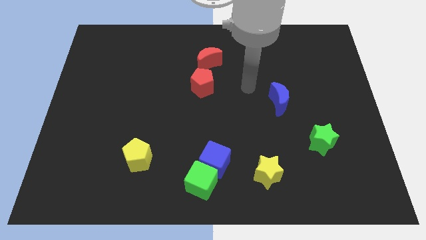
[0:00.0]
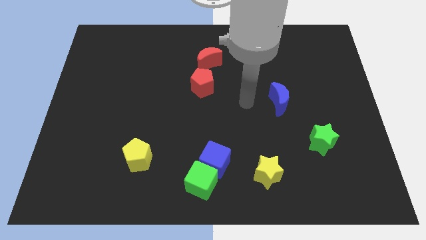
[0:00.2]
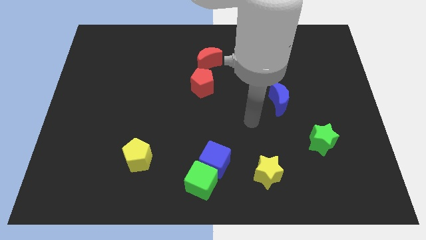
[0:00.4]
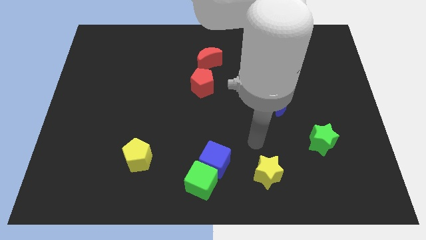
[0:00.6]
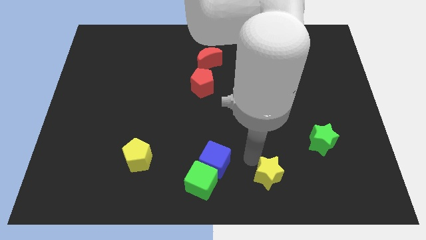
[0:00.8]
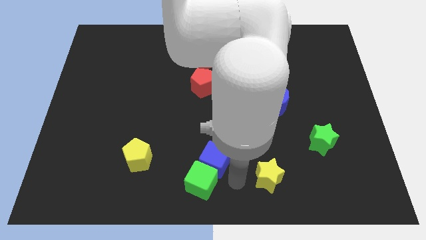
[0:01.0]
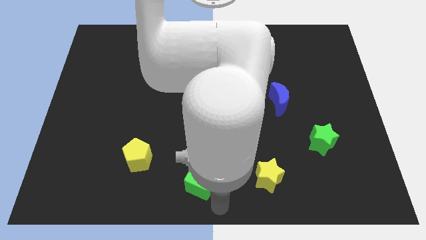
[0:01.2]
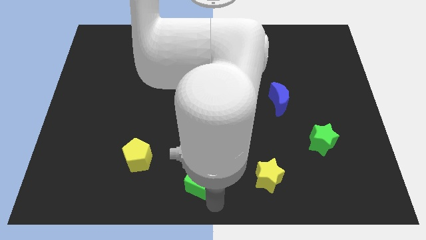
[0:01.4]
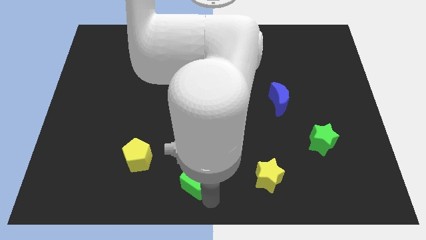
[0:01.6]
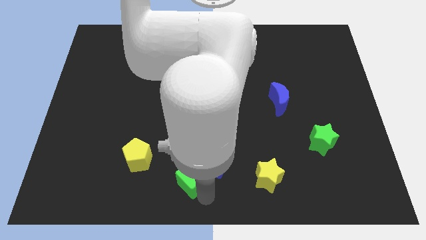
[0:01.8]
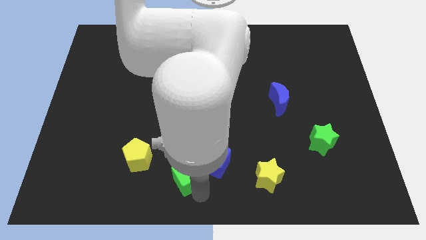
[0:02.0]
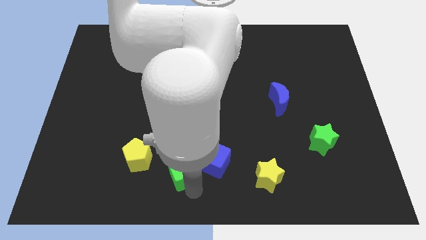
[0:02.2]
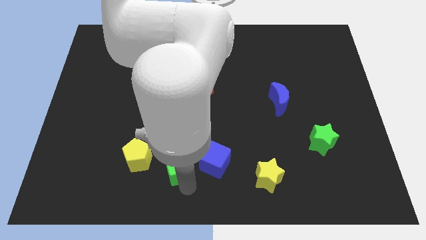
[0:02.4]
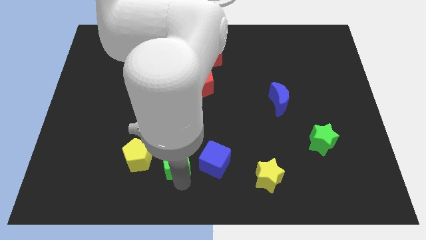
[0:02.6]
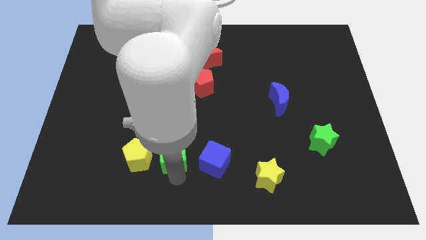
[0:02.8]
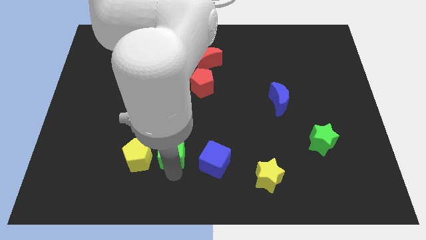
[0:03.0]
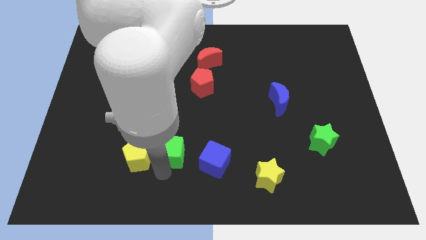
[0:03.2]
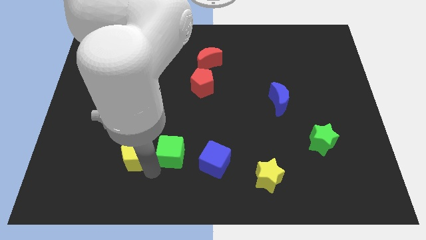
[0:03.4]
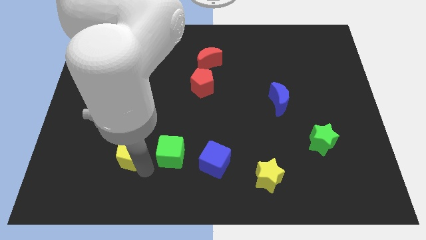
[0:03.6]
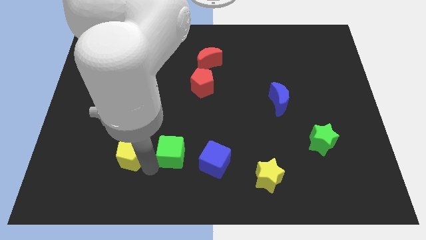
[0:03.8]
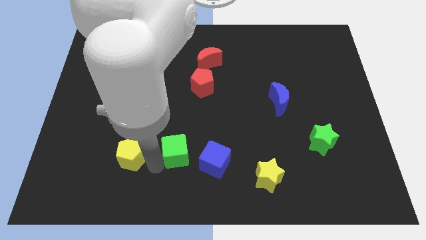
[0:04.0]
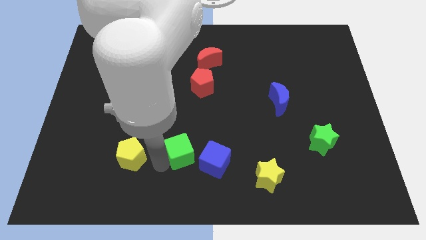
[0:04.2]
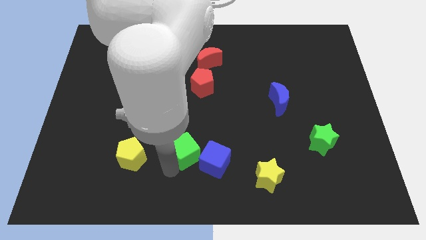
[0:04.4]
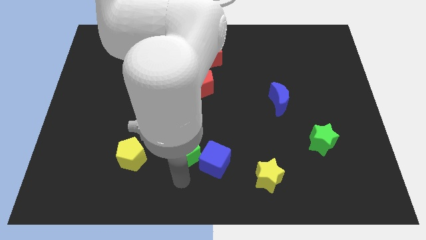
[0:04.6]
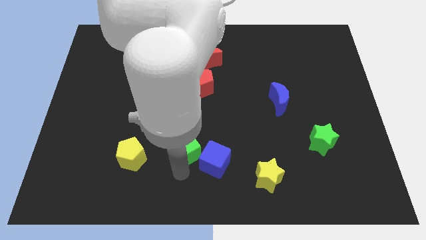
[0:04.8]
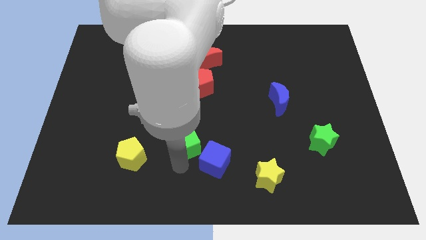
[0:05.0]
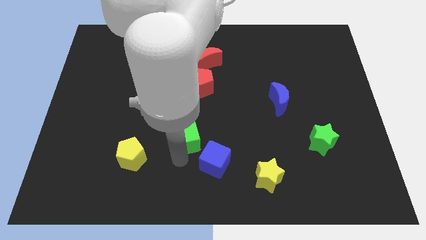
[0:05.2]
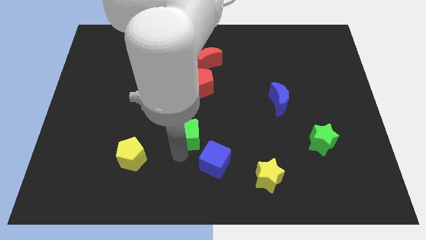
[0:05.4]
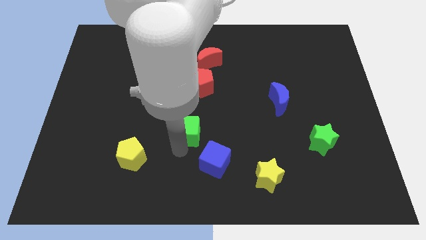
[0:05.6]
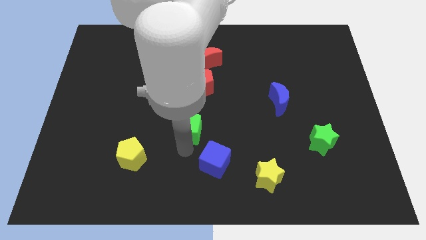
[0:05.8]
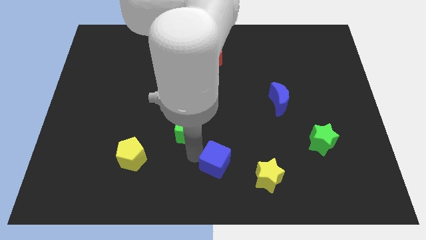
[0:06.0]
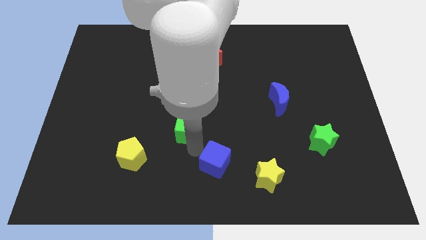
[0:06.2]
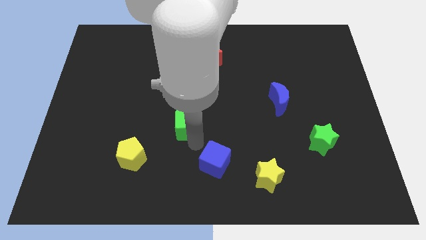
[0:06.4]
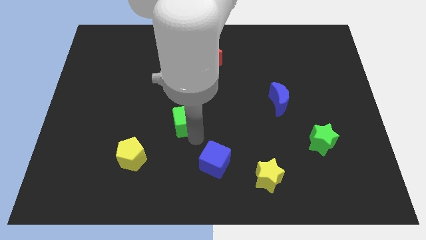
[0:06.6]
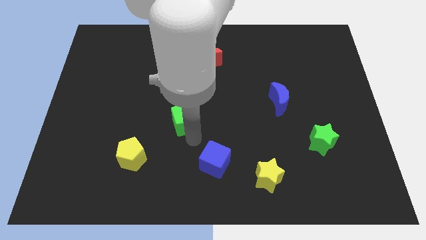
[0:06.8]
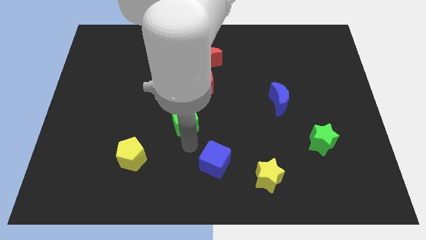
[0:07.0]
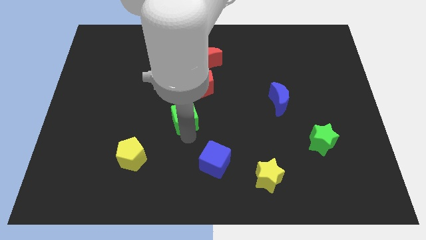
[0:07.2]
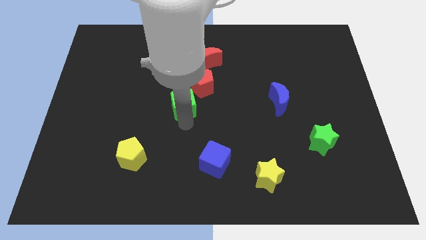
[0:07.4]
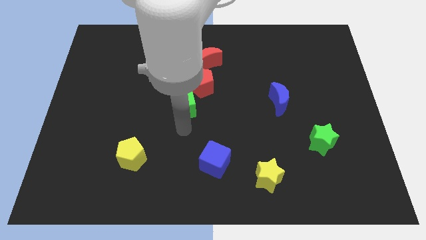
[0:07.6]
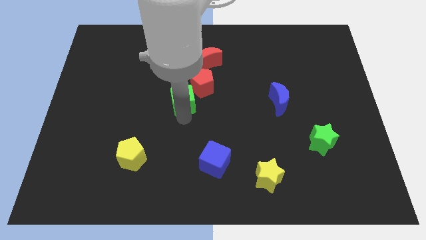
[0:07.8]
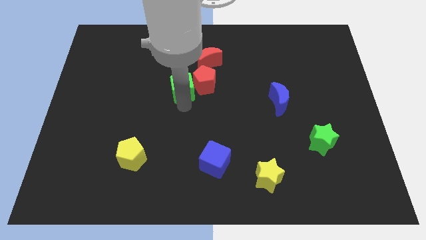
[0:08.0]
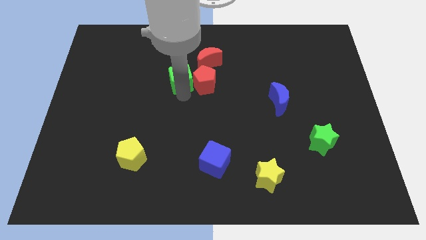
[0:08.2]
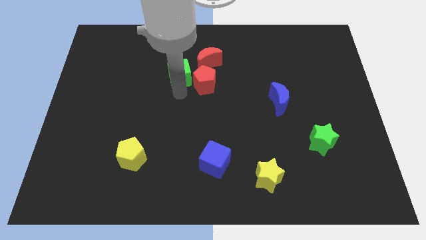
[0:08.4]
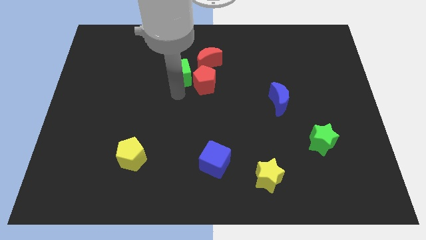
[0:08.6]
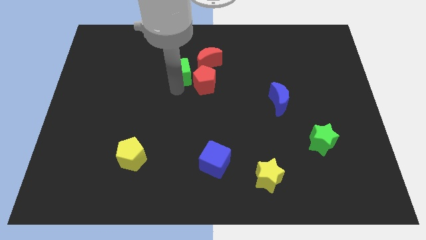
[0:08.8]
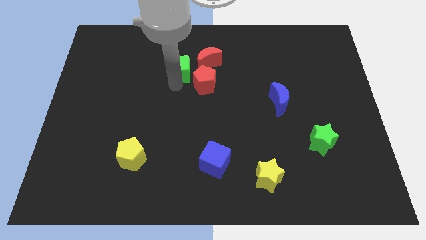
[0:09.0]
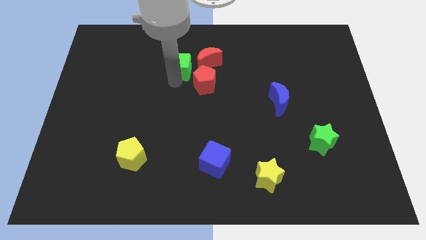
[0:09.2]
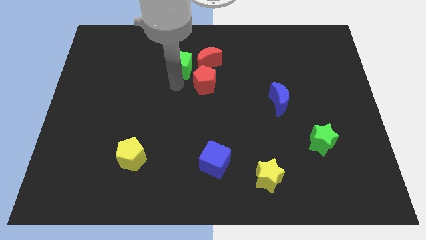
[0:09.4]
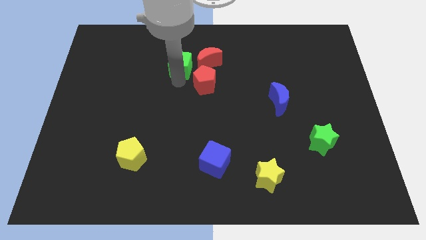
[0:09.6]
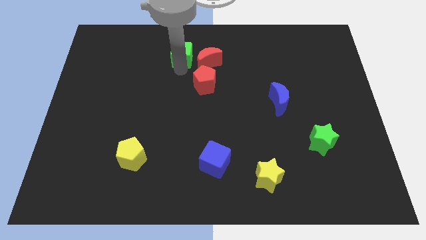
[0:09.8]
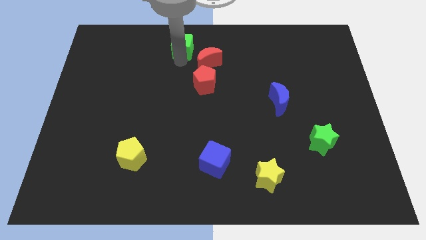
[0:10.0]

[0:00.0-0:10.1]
put the green cube to the towards your base

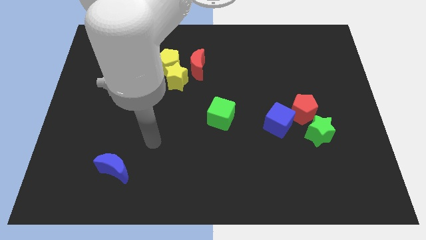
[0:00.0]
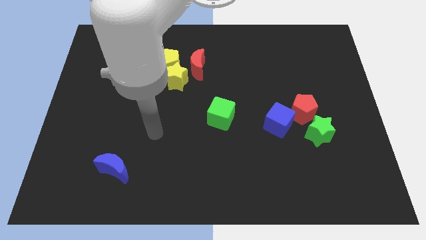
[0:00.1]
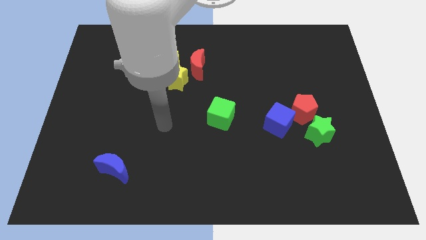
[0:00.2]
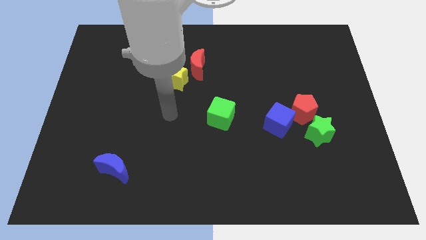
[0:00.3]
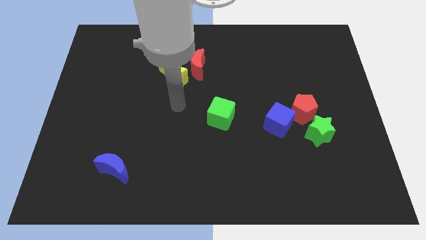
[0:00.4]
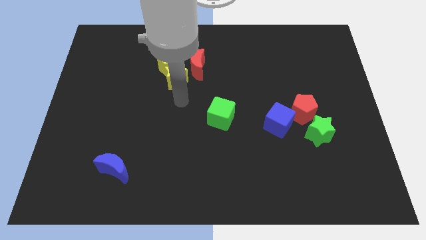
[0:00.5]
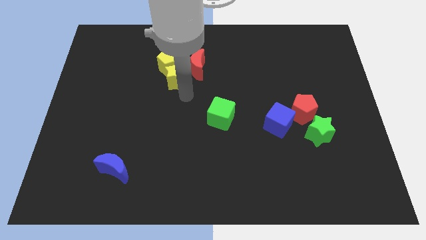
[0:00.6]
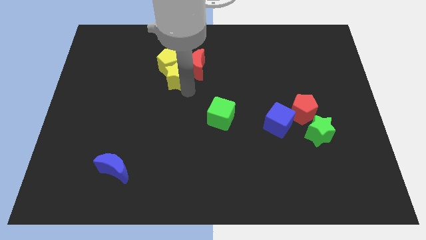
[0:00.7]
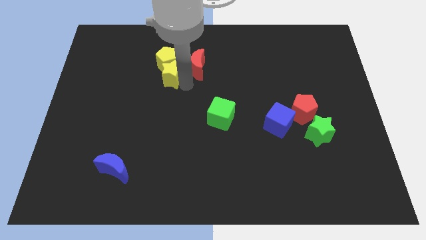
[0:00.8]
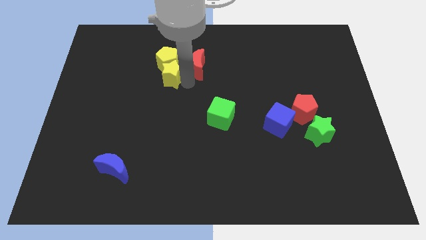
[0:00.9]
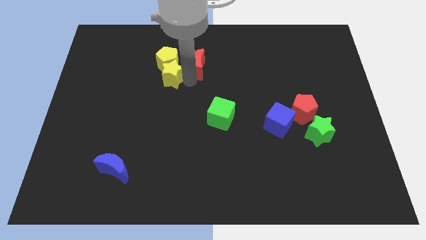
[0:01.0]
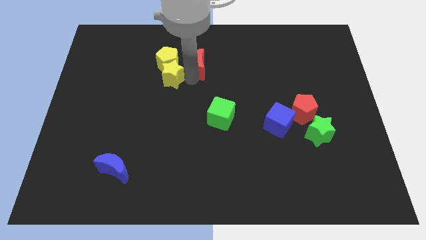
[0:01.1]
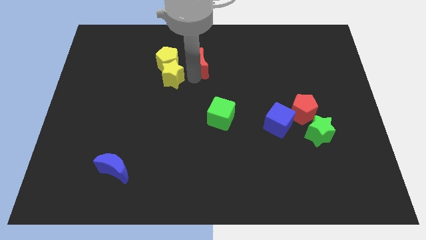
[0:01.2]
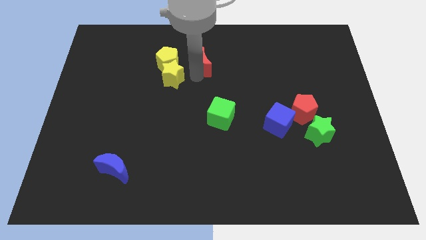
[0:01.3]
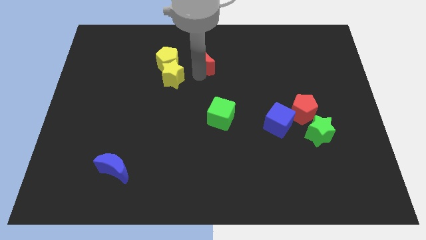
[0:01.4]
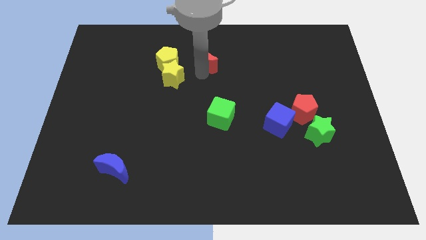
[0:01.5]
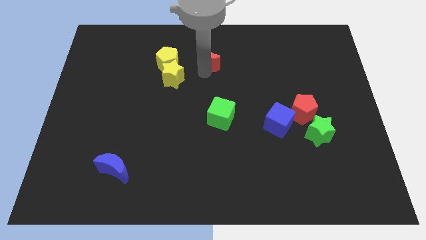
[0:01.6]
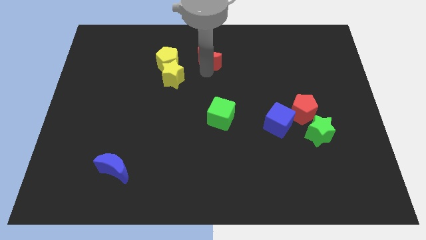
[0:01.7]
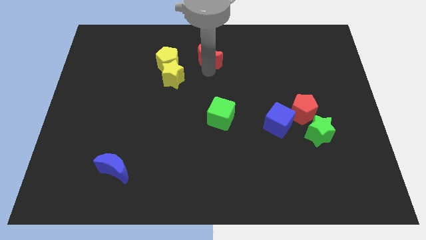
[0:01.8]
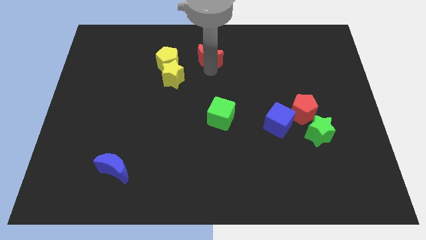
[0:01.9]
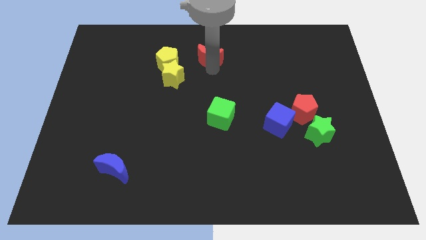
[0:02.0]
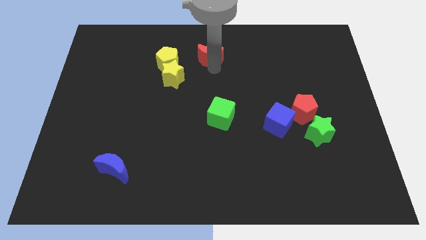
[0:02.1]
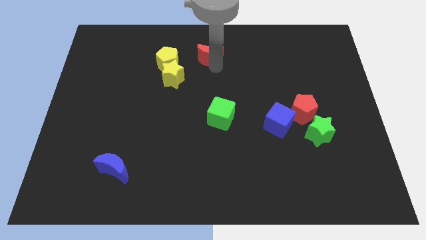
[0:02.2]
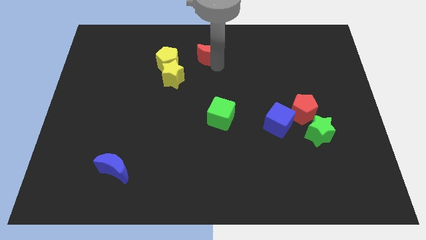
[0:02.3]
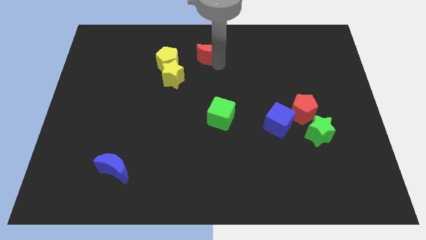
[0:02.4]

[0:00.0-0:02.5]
push the red moon to the towards your base
